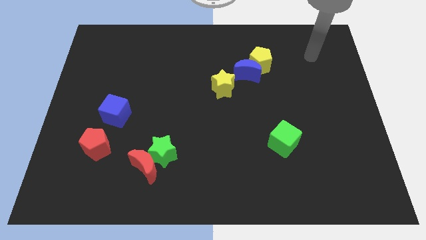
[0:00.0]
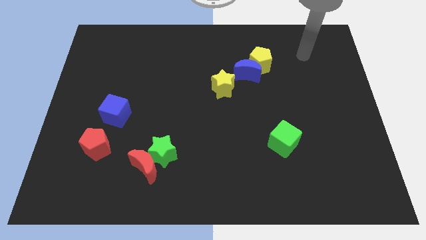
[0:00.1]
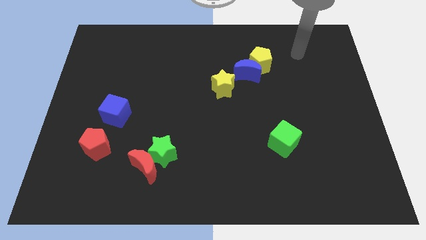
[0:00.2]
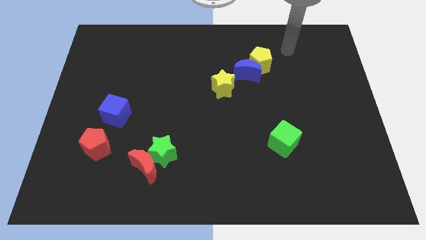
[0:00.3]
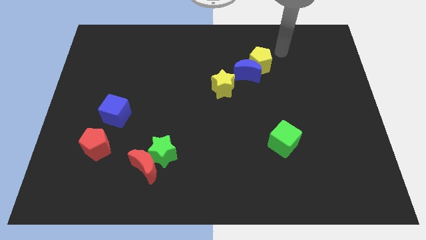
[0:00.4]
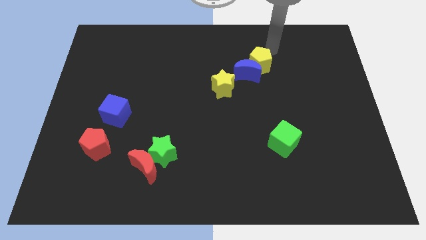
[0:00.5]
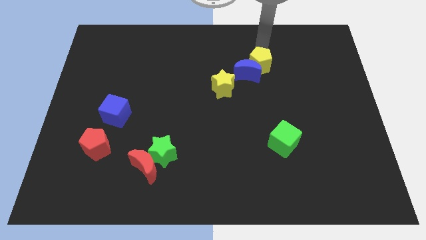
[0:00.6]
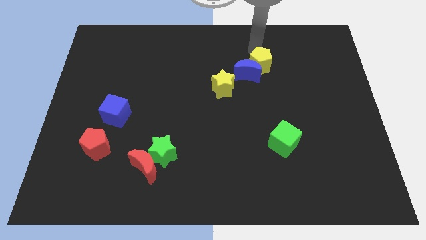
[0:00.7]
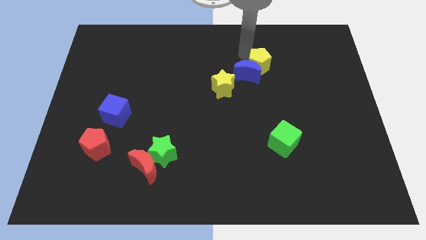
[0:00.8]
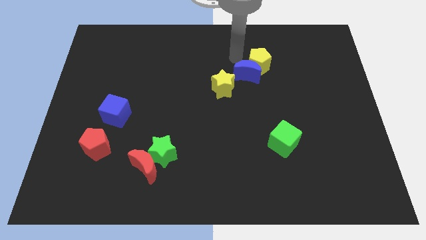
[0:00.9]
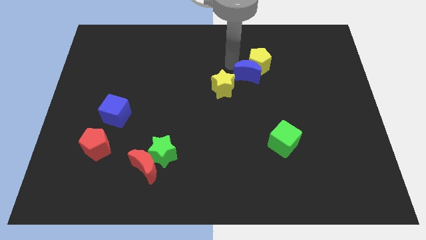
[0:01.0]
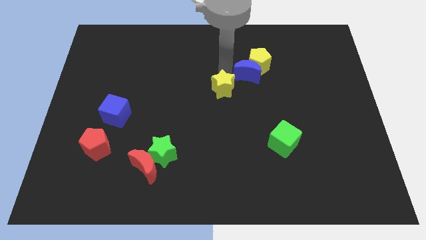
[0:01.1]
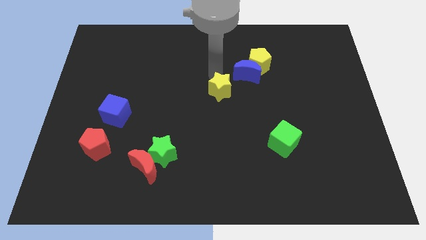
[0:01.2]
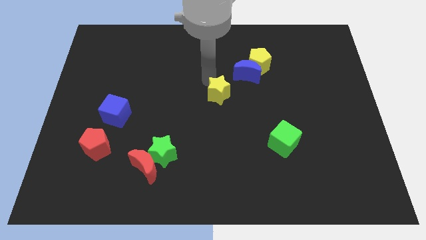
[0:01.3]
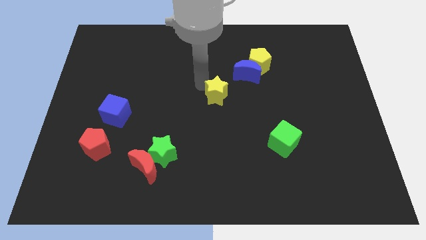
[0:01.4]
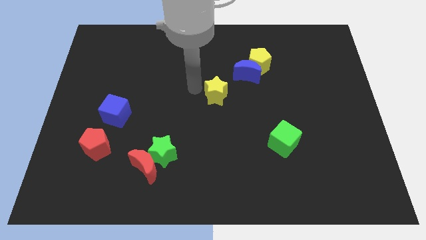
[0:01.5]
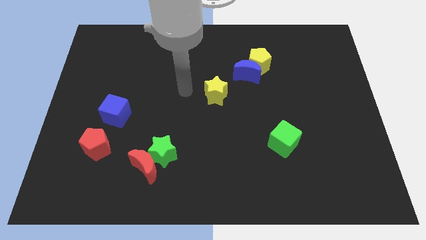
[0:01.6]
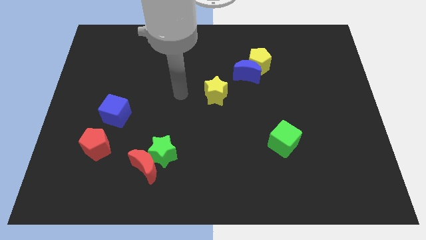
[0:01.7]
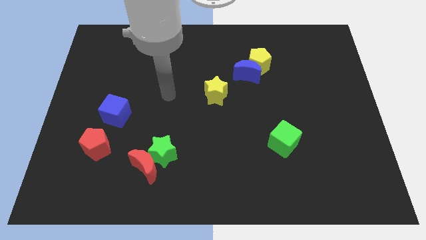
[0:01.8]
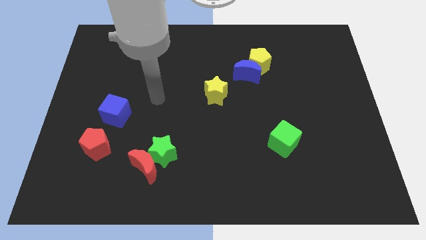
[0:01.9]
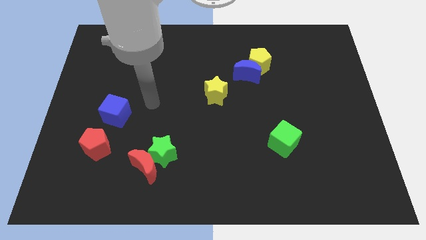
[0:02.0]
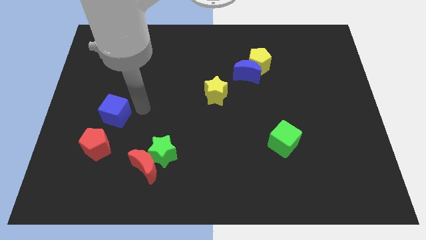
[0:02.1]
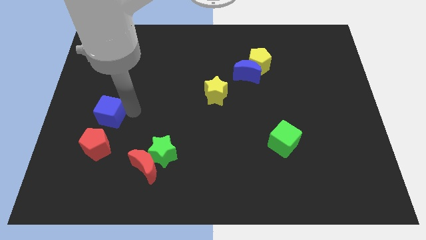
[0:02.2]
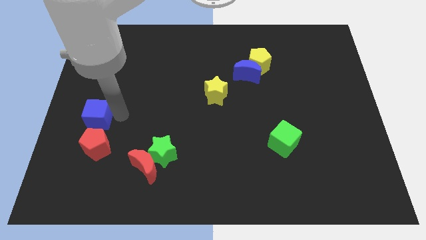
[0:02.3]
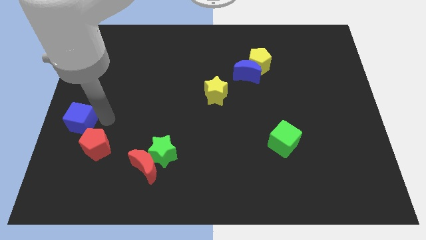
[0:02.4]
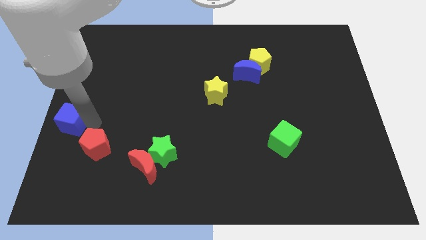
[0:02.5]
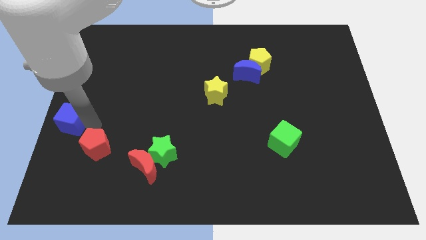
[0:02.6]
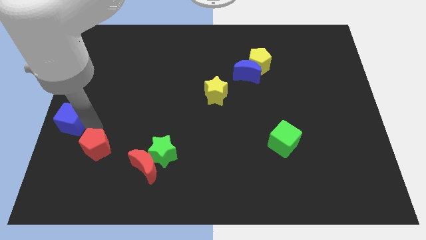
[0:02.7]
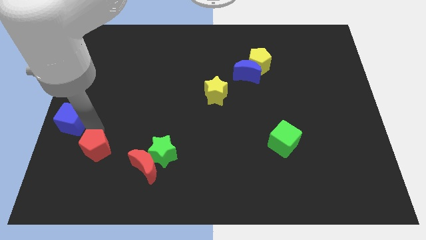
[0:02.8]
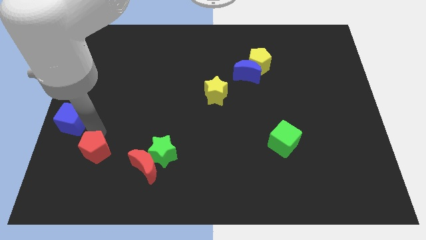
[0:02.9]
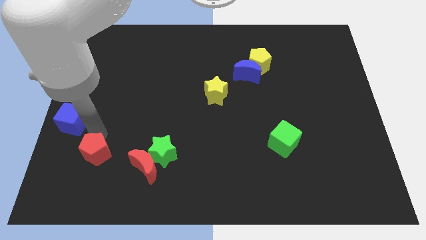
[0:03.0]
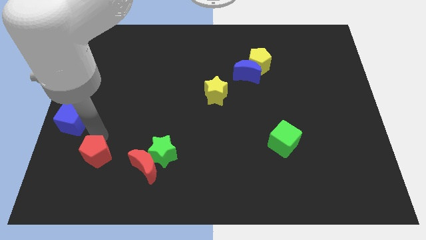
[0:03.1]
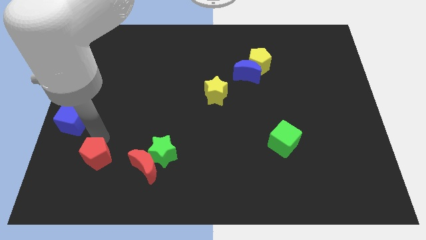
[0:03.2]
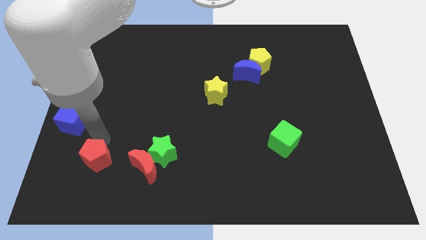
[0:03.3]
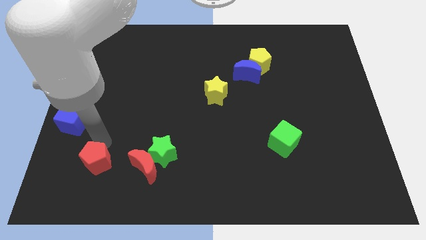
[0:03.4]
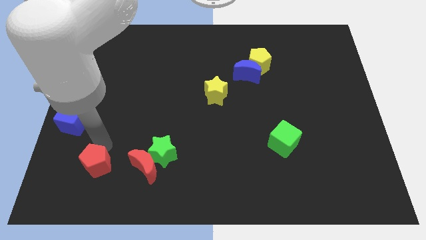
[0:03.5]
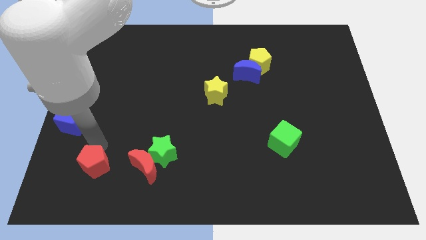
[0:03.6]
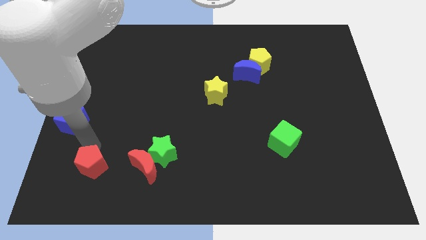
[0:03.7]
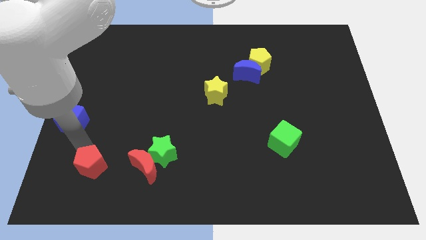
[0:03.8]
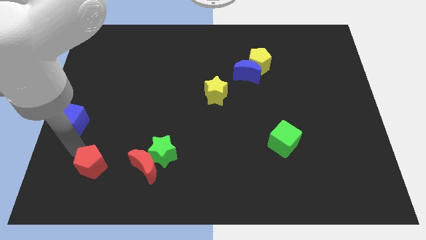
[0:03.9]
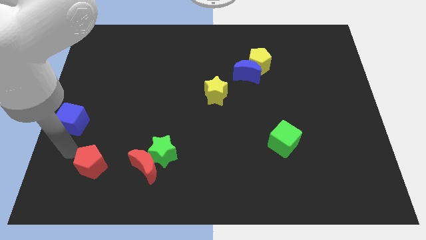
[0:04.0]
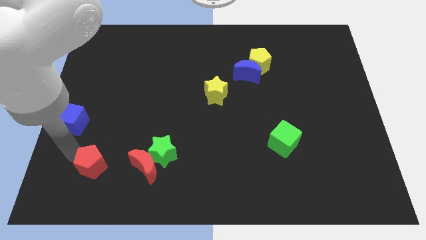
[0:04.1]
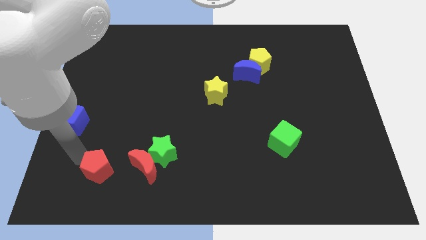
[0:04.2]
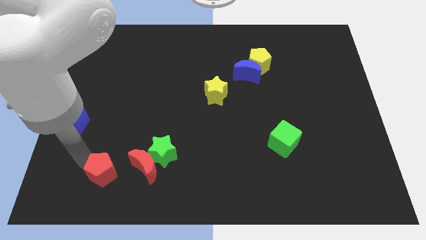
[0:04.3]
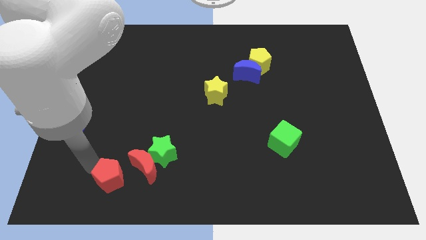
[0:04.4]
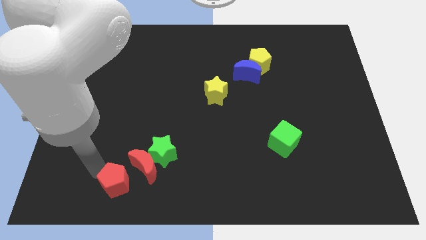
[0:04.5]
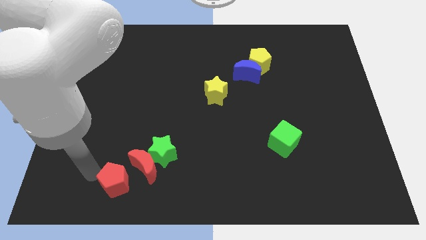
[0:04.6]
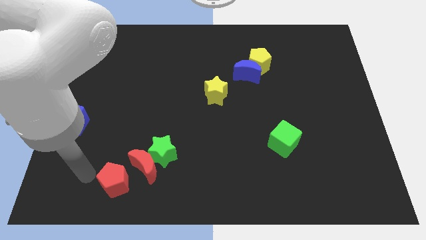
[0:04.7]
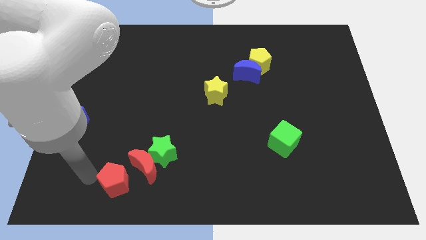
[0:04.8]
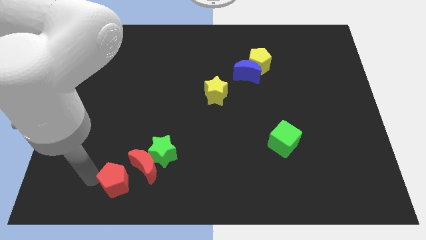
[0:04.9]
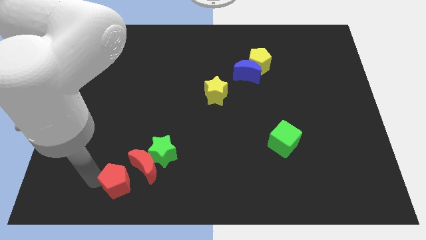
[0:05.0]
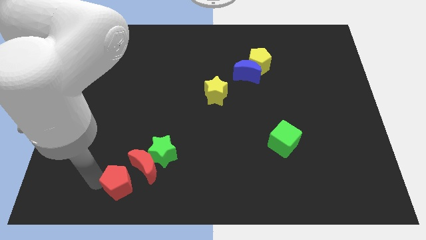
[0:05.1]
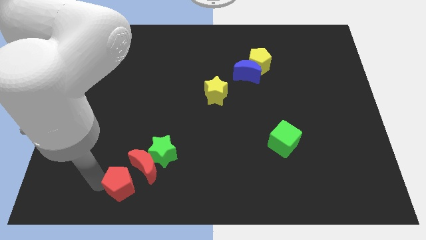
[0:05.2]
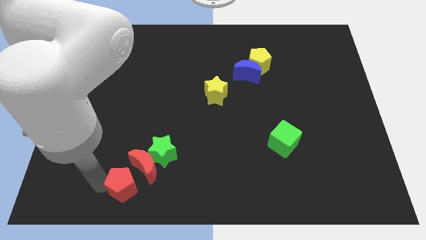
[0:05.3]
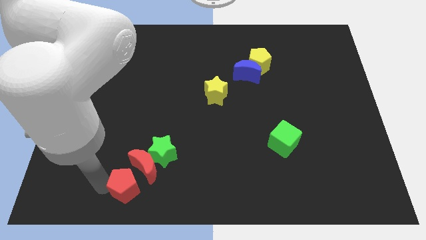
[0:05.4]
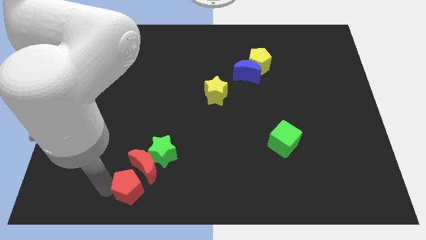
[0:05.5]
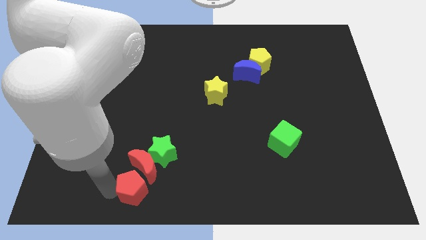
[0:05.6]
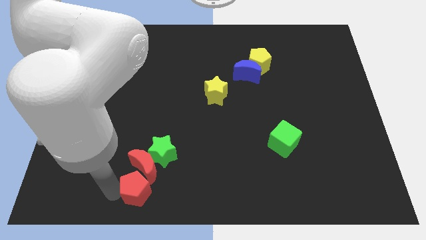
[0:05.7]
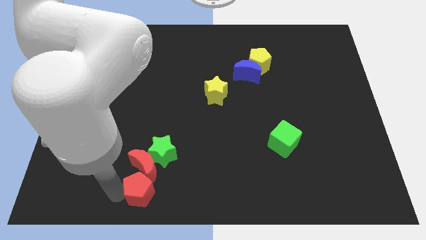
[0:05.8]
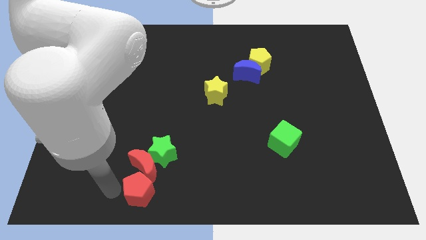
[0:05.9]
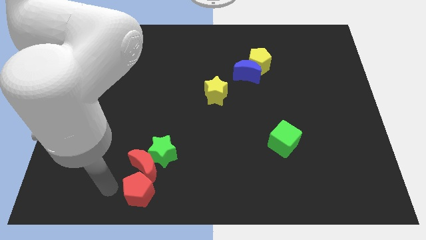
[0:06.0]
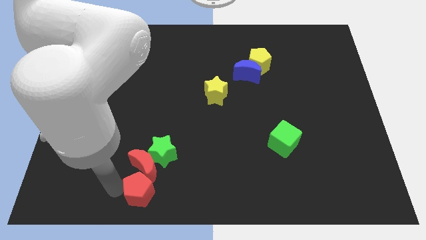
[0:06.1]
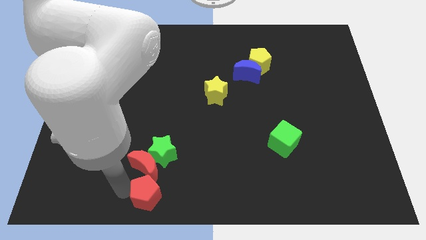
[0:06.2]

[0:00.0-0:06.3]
slide the red pentagon to the bottom

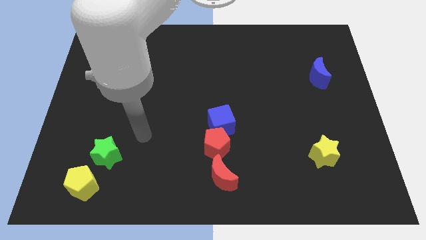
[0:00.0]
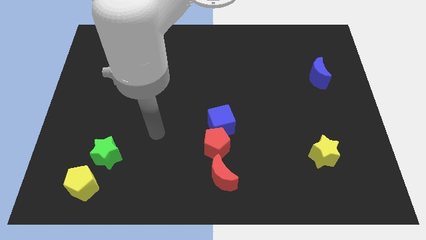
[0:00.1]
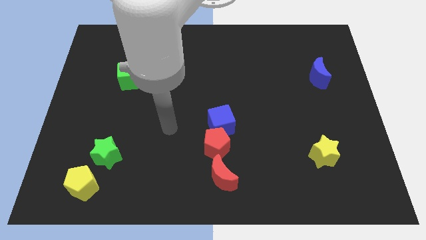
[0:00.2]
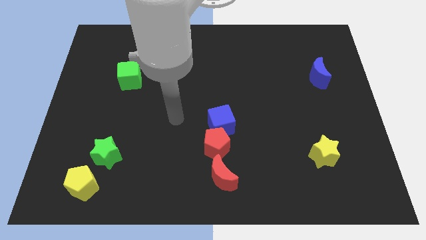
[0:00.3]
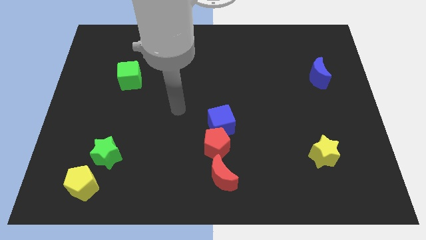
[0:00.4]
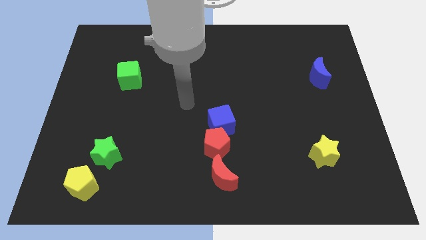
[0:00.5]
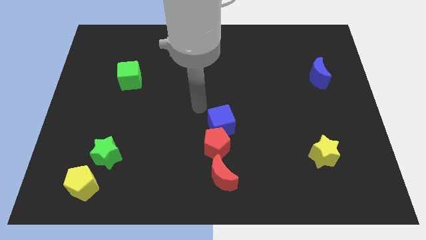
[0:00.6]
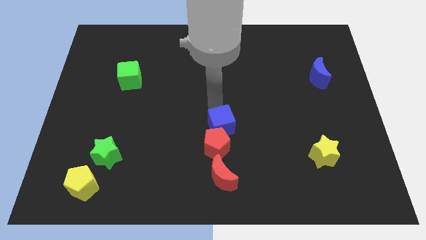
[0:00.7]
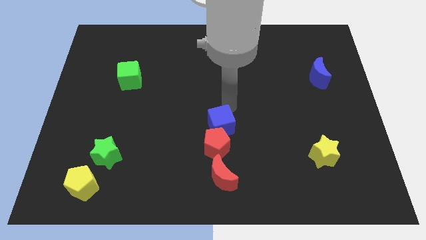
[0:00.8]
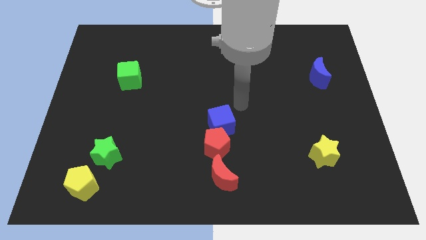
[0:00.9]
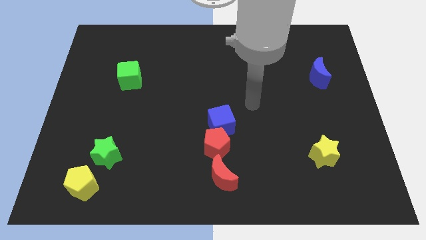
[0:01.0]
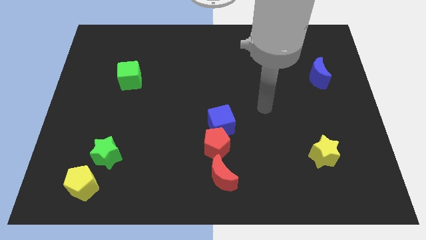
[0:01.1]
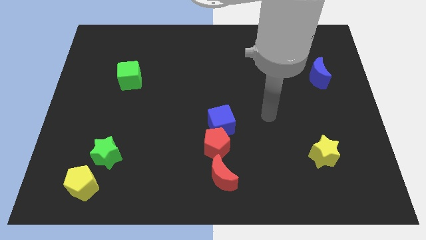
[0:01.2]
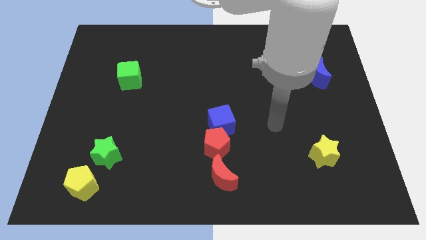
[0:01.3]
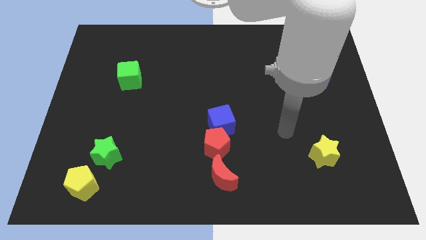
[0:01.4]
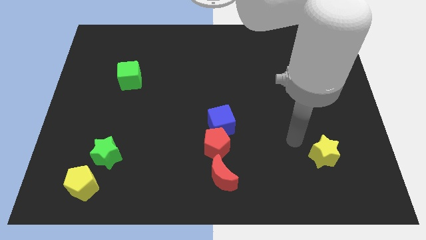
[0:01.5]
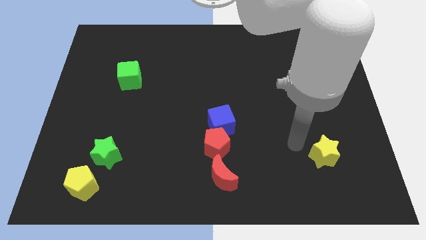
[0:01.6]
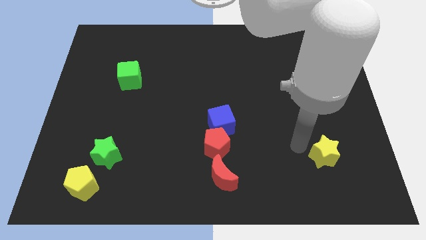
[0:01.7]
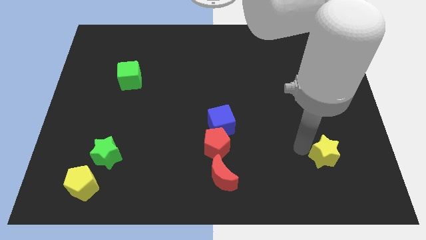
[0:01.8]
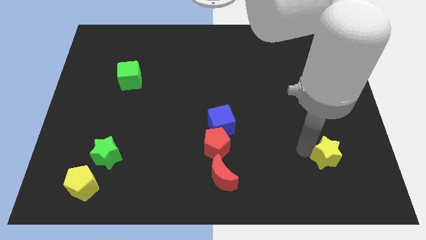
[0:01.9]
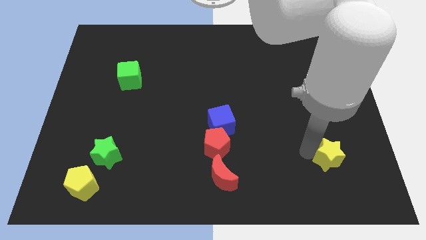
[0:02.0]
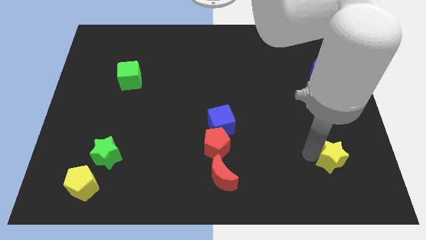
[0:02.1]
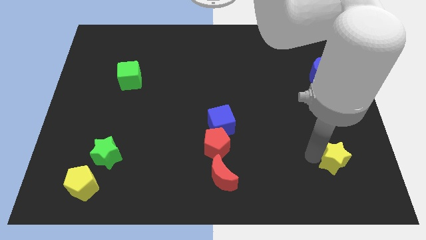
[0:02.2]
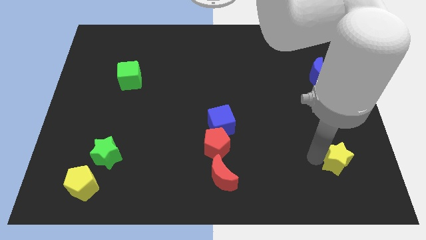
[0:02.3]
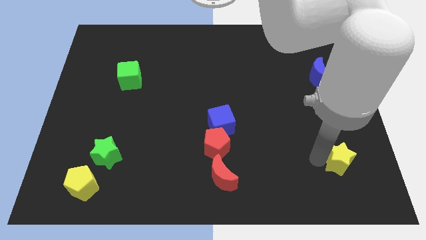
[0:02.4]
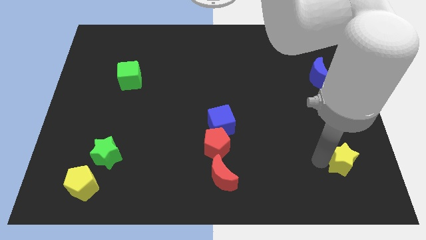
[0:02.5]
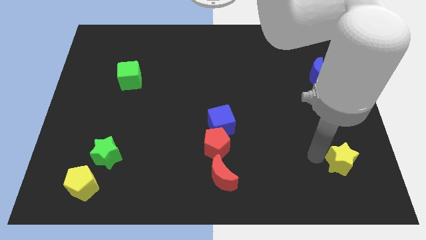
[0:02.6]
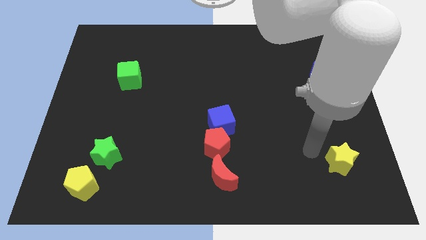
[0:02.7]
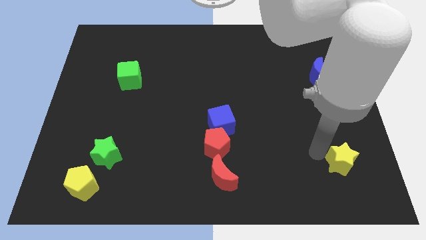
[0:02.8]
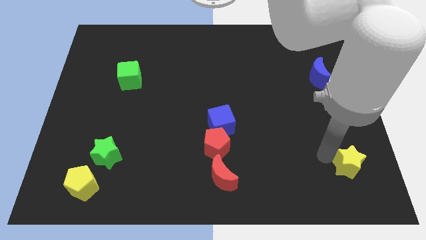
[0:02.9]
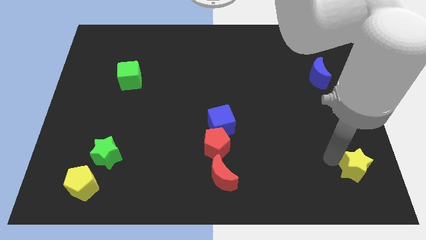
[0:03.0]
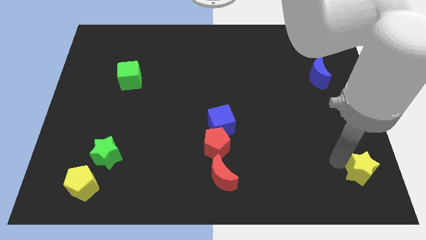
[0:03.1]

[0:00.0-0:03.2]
move the yellow star to the bottom right
